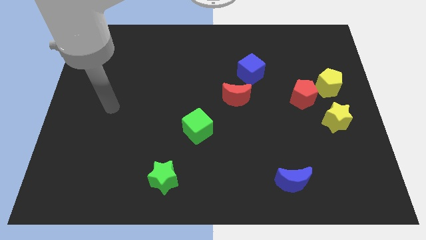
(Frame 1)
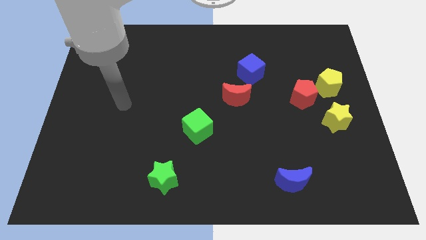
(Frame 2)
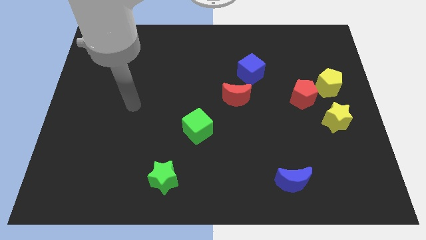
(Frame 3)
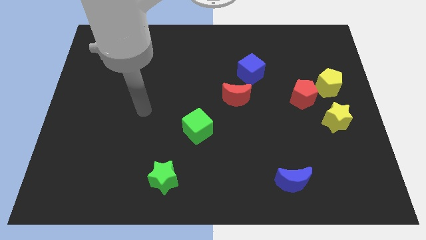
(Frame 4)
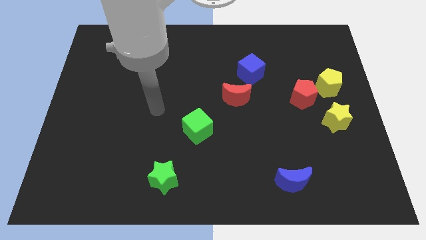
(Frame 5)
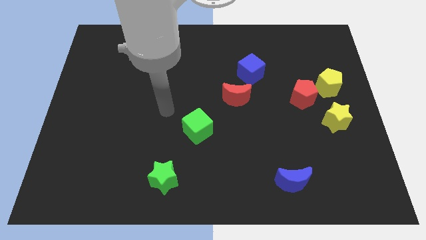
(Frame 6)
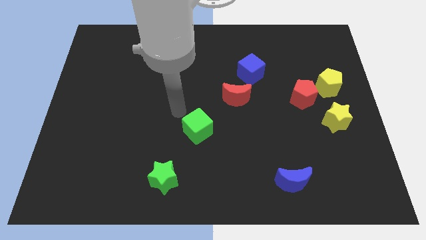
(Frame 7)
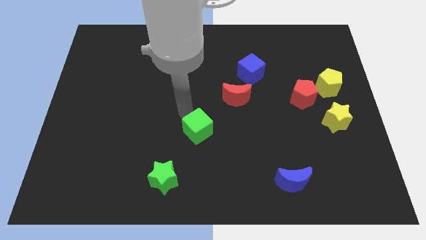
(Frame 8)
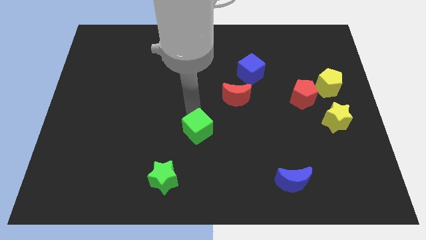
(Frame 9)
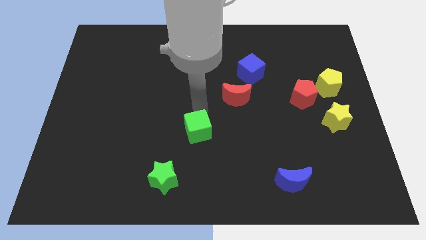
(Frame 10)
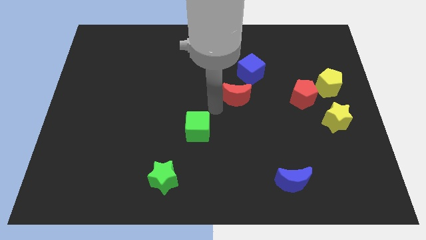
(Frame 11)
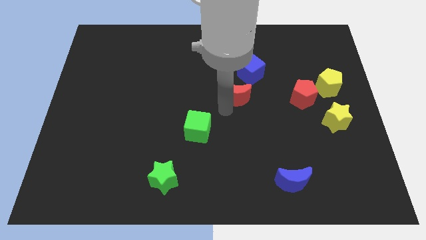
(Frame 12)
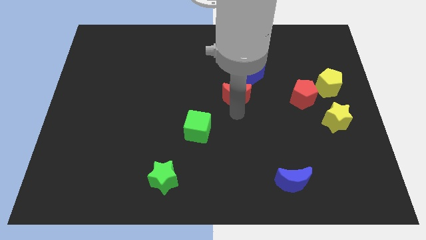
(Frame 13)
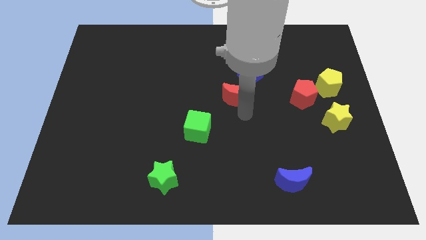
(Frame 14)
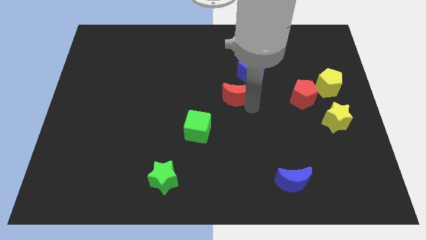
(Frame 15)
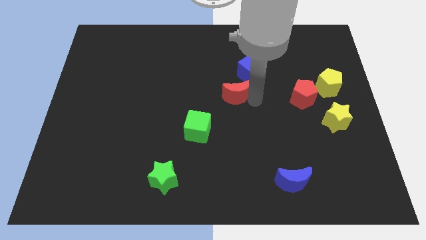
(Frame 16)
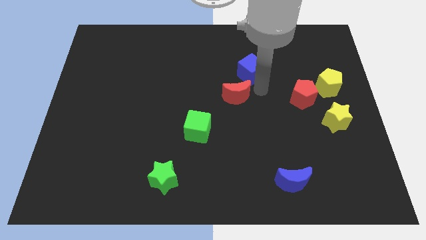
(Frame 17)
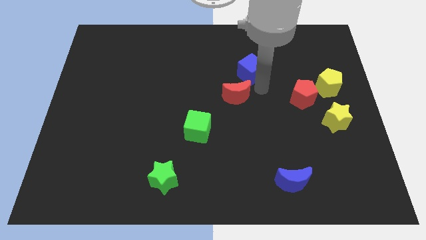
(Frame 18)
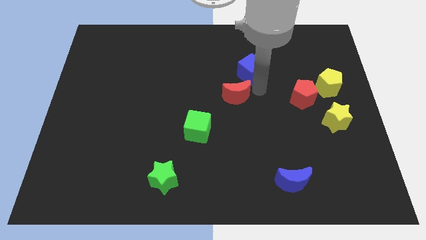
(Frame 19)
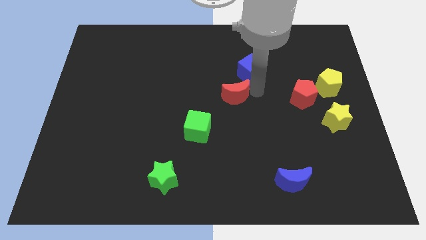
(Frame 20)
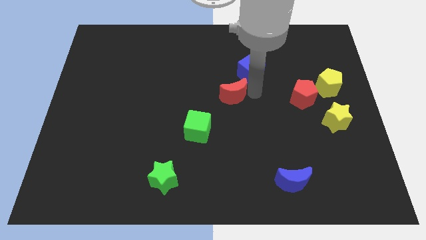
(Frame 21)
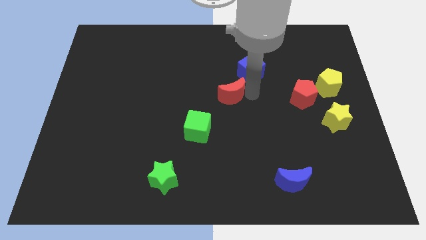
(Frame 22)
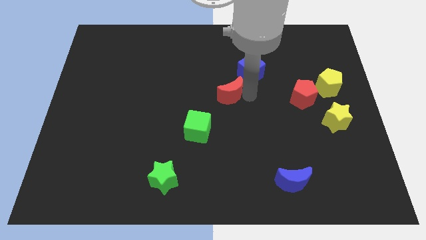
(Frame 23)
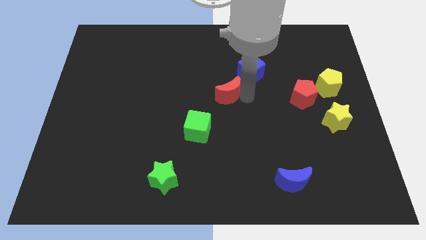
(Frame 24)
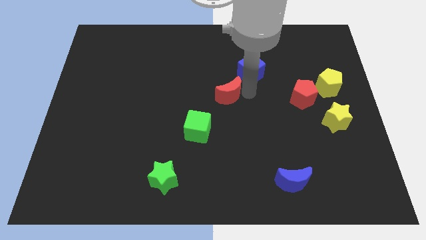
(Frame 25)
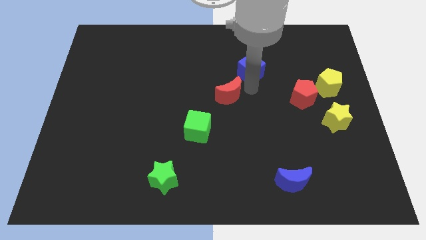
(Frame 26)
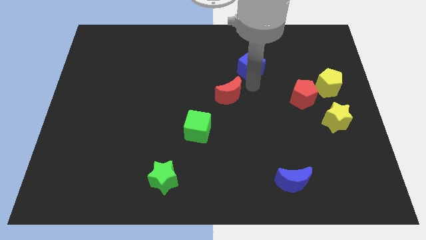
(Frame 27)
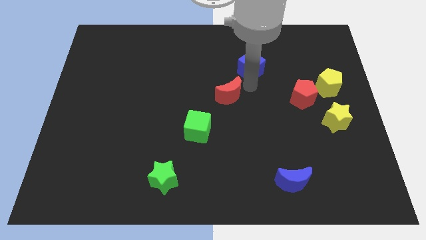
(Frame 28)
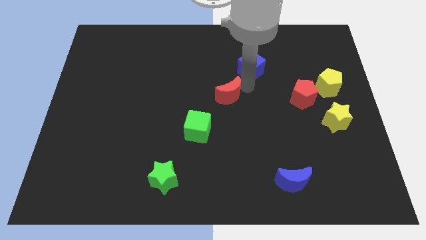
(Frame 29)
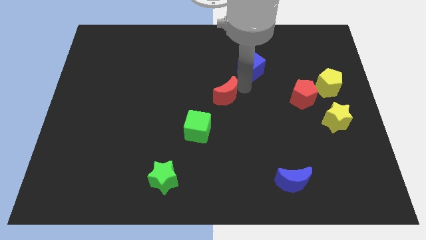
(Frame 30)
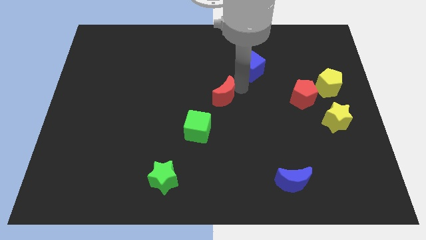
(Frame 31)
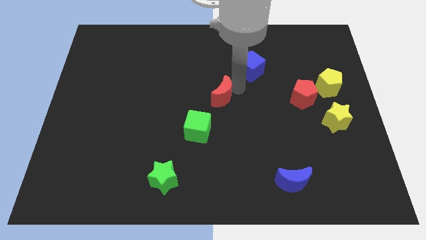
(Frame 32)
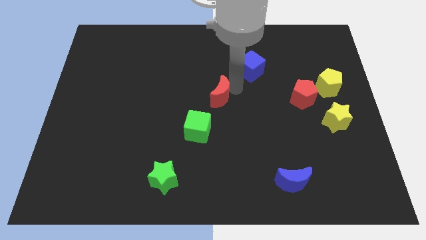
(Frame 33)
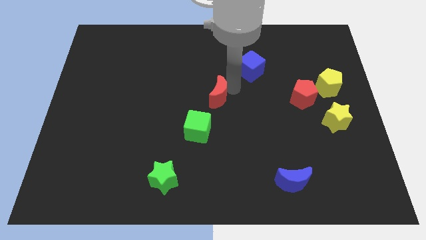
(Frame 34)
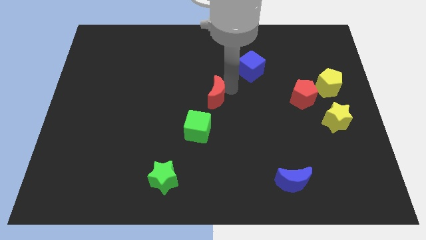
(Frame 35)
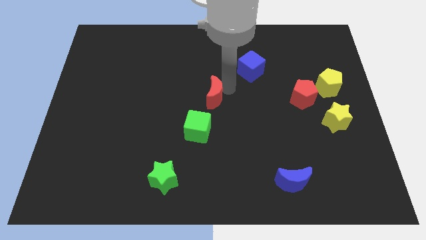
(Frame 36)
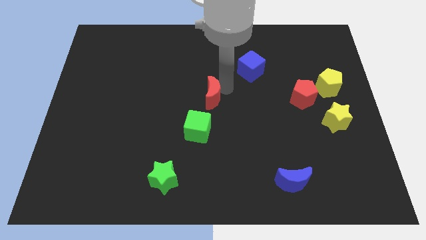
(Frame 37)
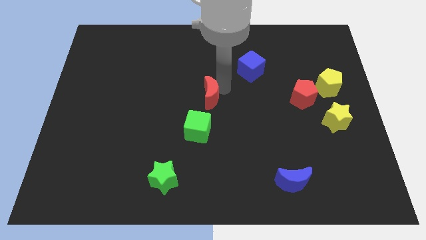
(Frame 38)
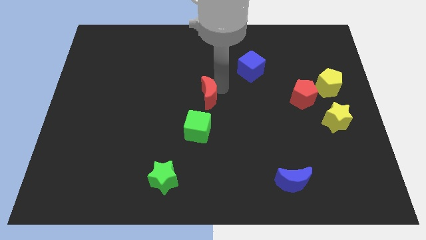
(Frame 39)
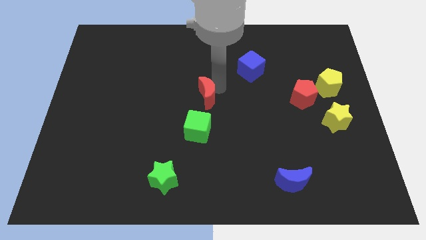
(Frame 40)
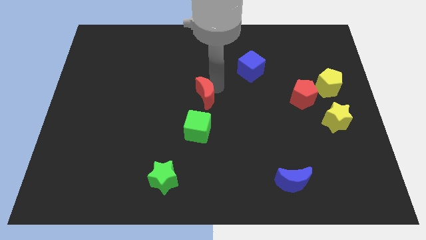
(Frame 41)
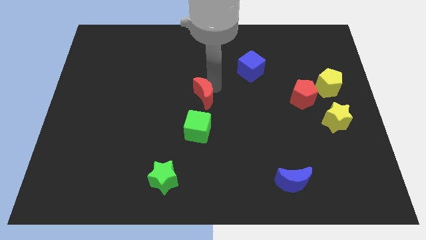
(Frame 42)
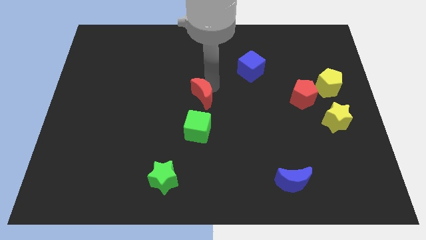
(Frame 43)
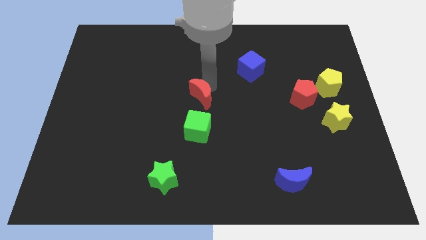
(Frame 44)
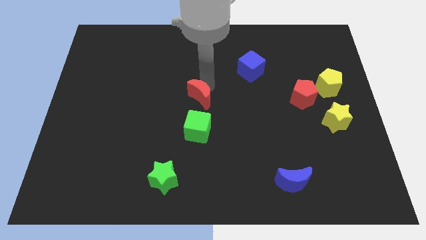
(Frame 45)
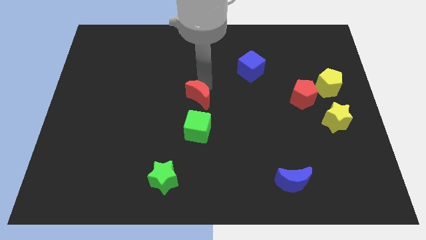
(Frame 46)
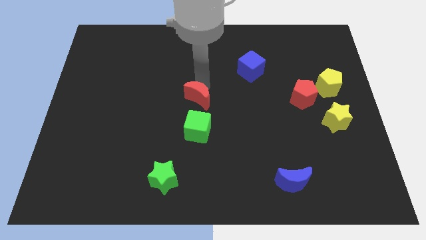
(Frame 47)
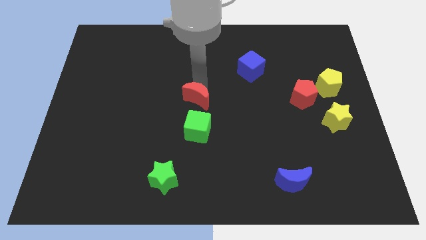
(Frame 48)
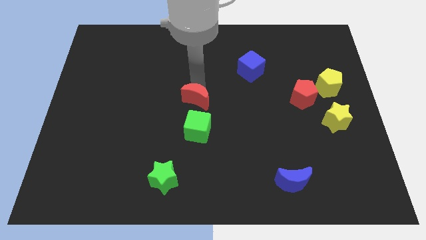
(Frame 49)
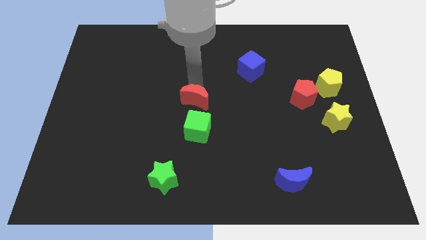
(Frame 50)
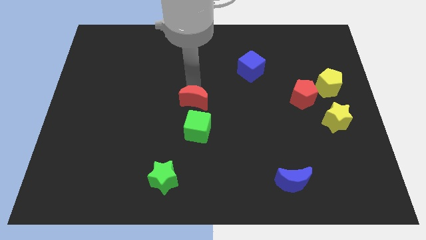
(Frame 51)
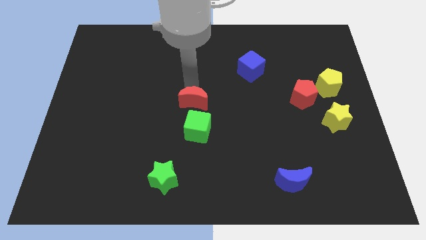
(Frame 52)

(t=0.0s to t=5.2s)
move the red moon to the top left side of the green cube

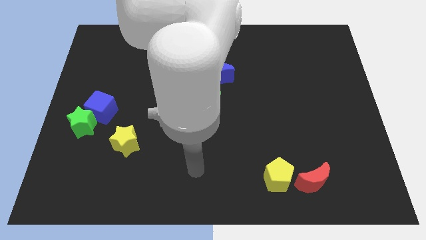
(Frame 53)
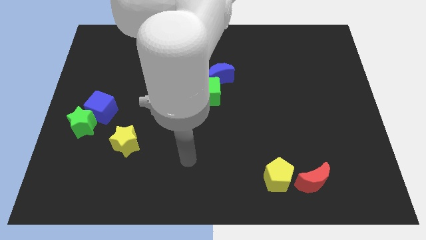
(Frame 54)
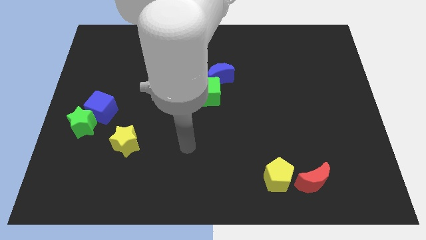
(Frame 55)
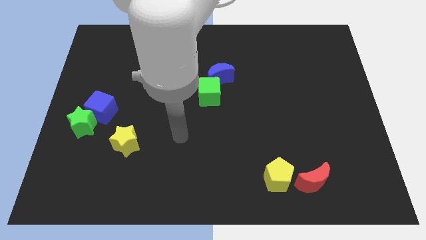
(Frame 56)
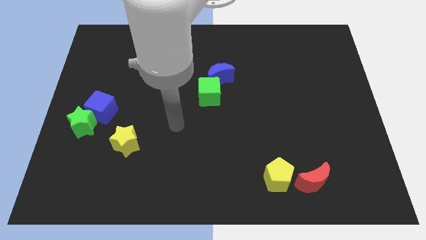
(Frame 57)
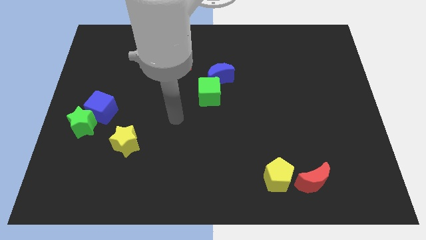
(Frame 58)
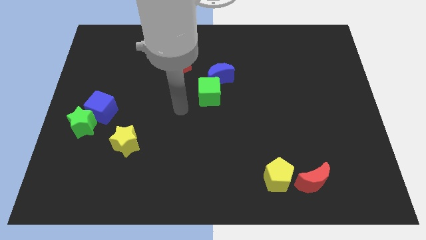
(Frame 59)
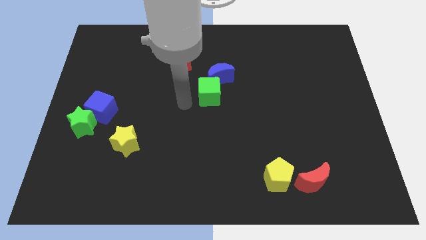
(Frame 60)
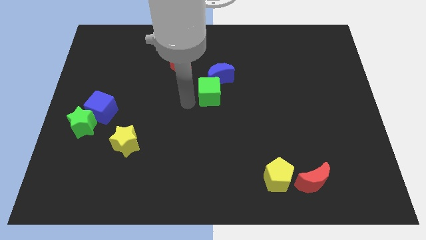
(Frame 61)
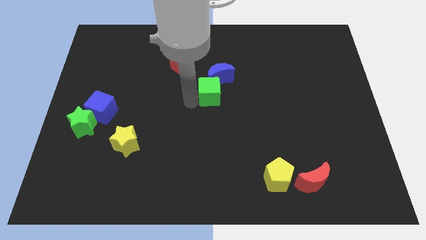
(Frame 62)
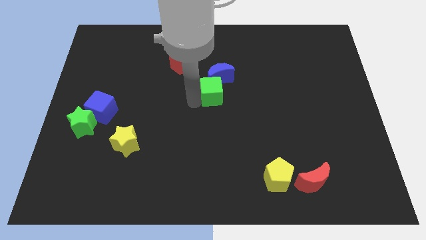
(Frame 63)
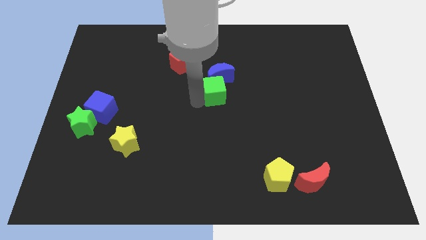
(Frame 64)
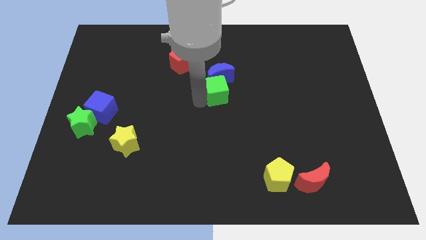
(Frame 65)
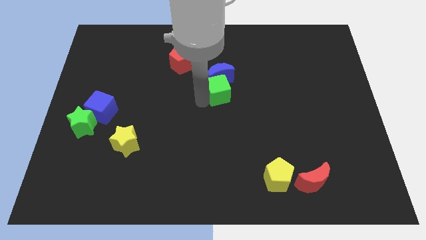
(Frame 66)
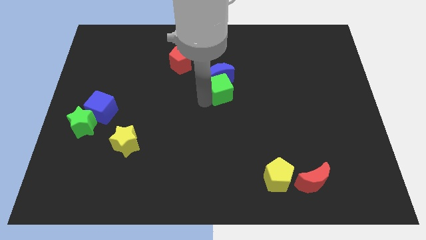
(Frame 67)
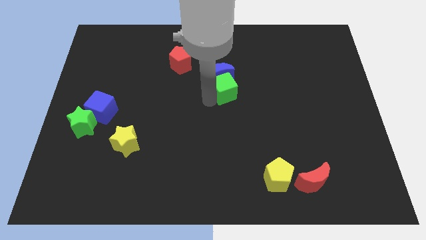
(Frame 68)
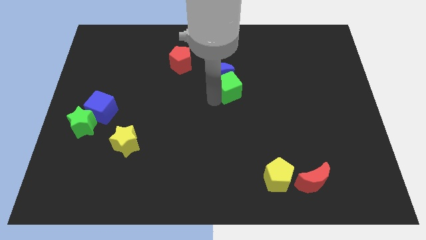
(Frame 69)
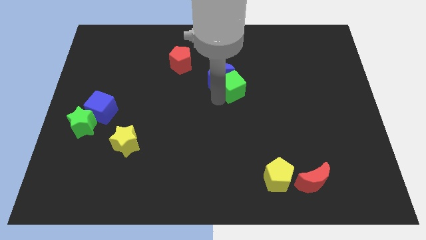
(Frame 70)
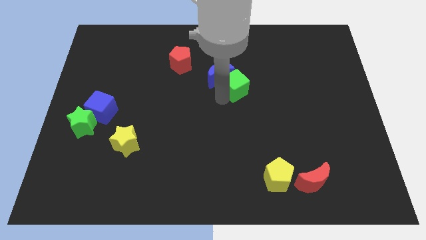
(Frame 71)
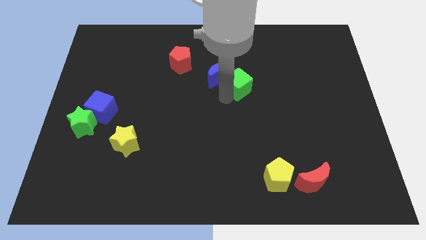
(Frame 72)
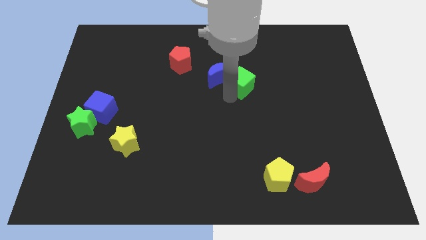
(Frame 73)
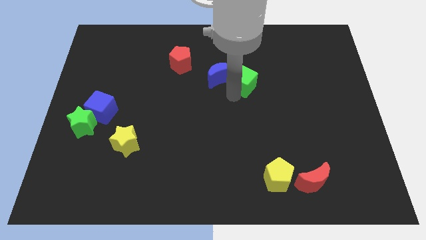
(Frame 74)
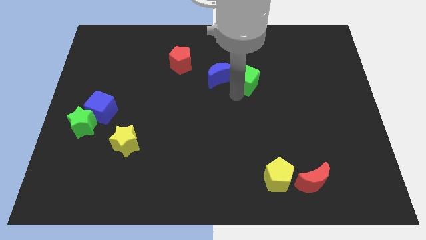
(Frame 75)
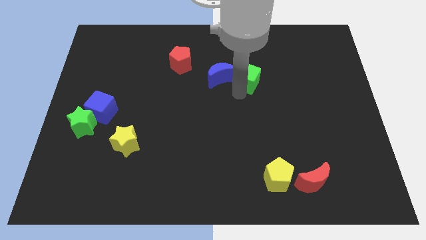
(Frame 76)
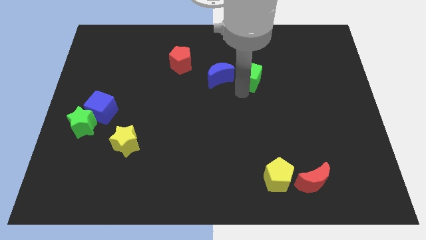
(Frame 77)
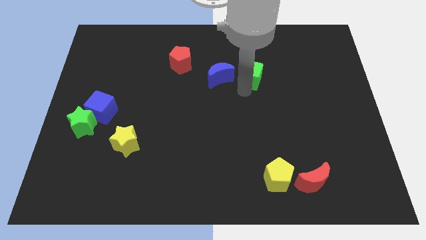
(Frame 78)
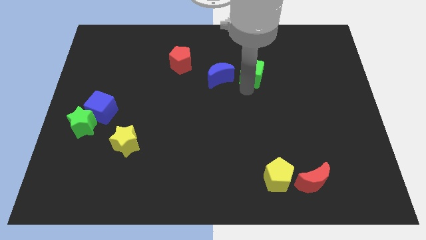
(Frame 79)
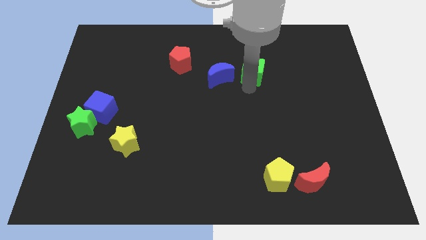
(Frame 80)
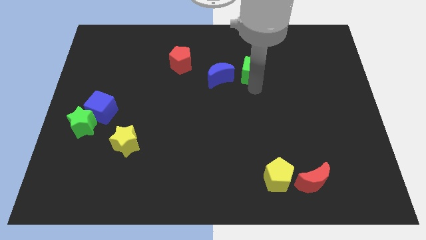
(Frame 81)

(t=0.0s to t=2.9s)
move the green cube diagonally up and to the right of the blue moon
